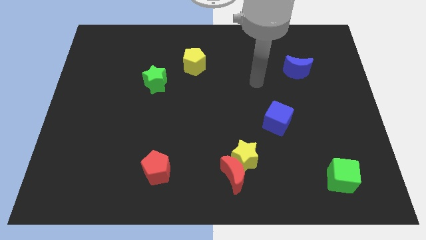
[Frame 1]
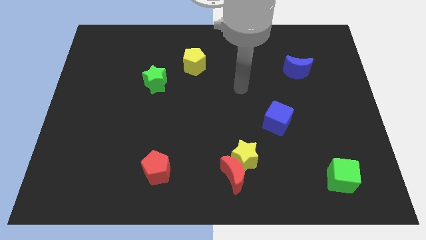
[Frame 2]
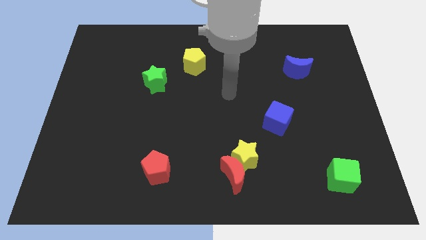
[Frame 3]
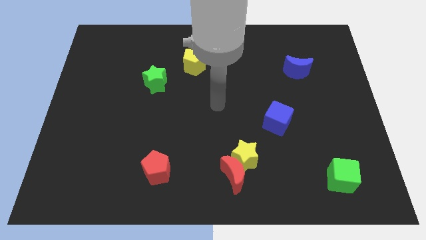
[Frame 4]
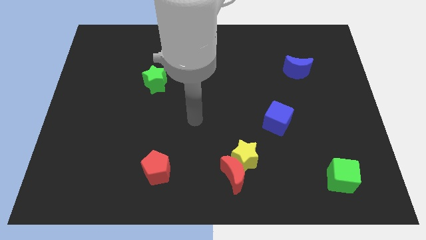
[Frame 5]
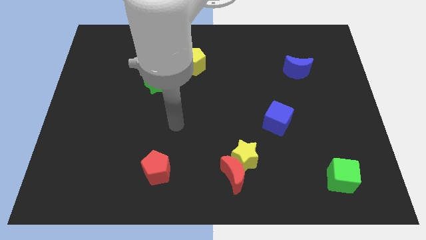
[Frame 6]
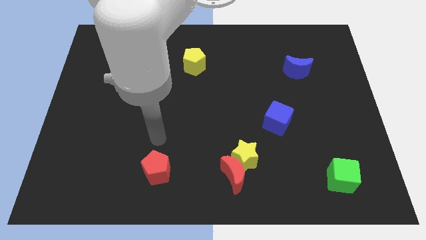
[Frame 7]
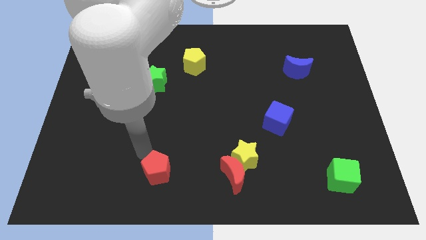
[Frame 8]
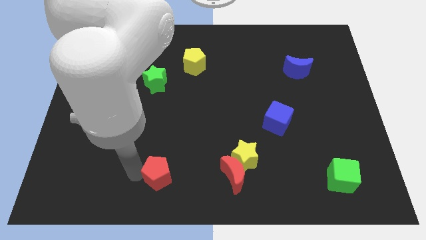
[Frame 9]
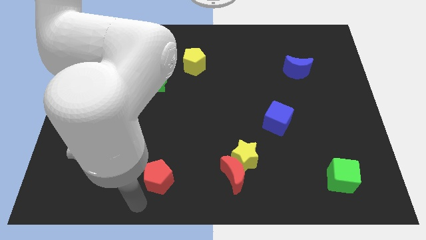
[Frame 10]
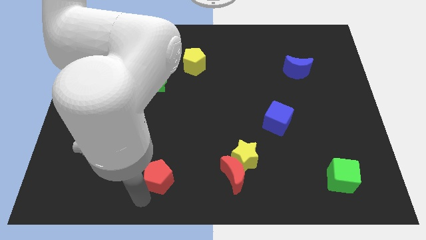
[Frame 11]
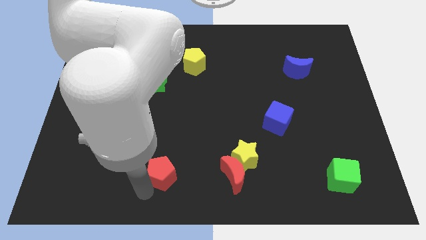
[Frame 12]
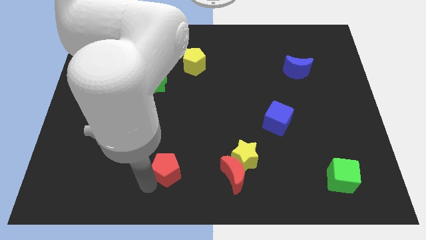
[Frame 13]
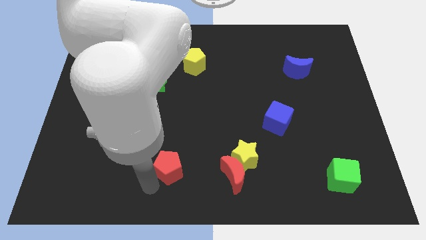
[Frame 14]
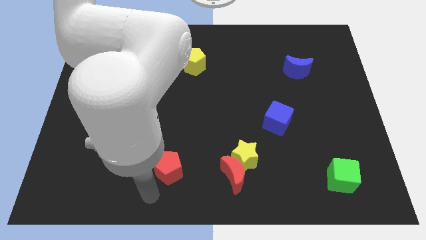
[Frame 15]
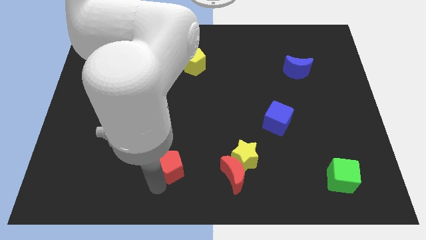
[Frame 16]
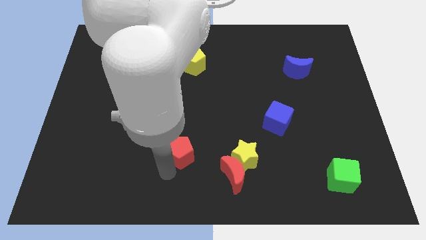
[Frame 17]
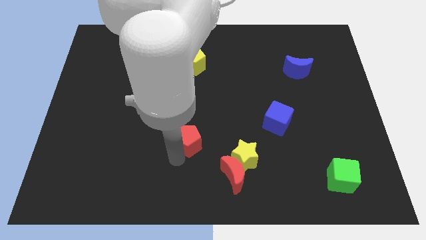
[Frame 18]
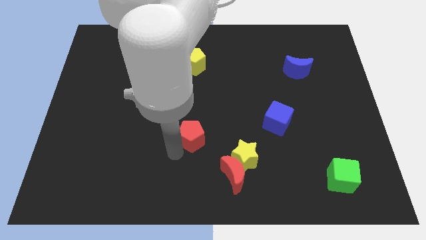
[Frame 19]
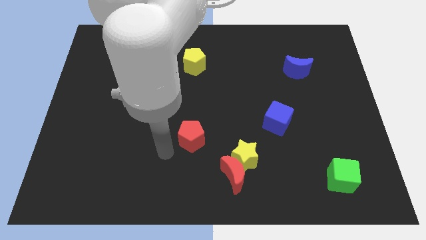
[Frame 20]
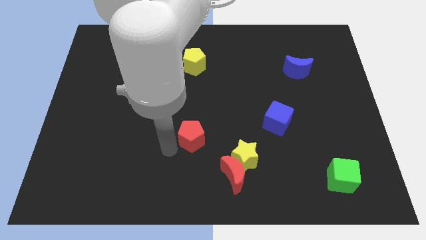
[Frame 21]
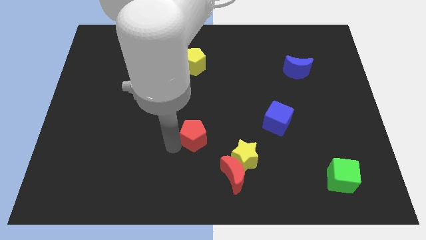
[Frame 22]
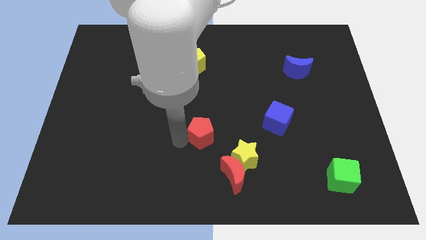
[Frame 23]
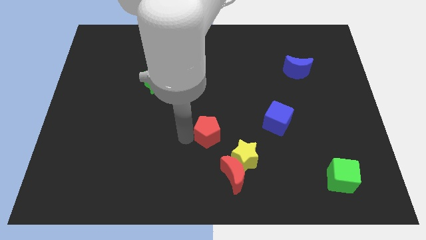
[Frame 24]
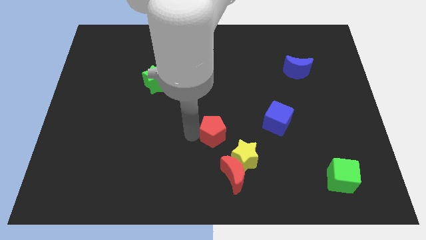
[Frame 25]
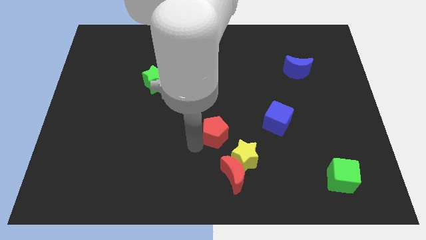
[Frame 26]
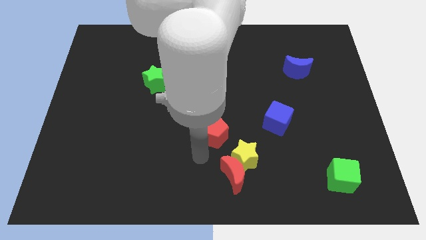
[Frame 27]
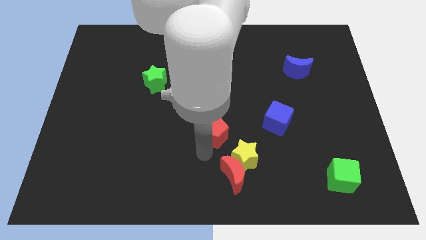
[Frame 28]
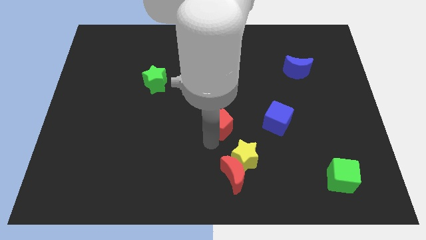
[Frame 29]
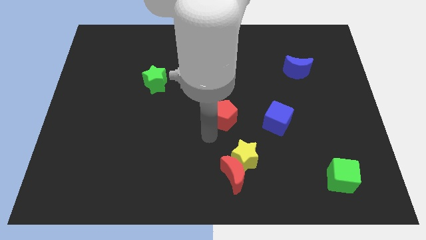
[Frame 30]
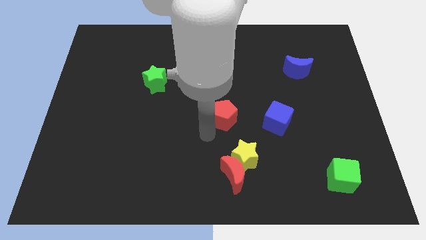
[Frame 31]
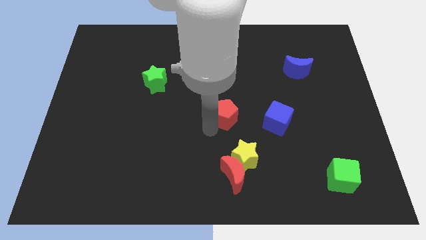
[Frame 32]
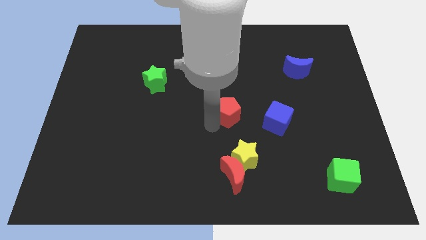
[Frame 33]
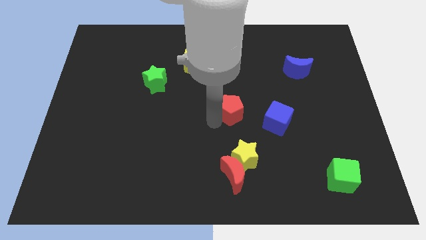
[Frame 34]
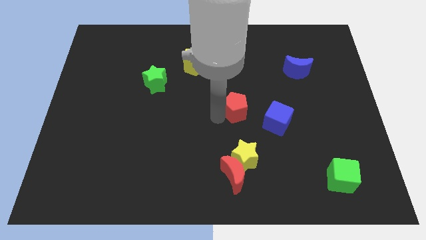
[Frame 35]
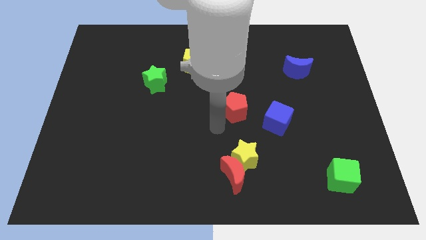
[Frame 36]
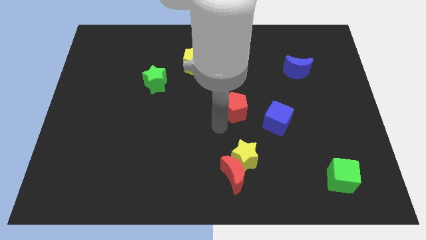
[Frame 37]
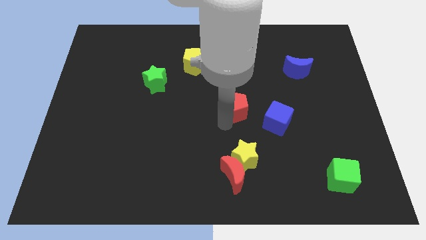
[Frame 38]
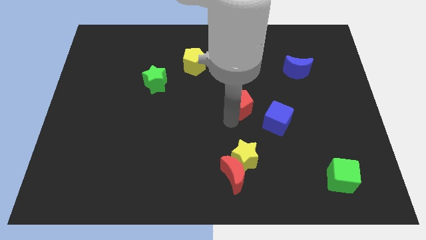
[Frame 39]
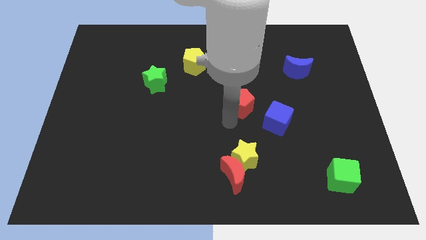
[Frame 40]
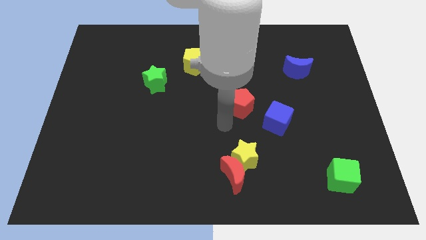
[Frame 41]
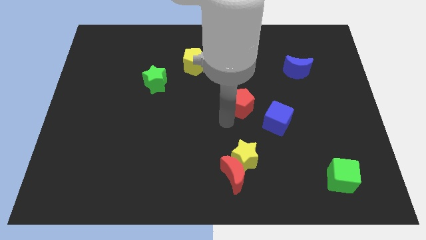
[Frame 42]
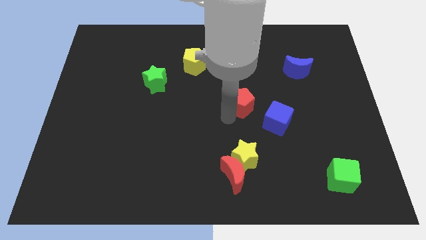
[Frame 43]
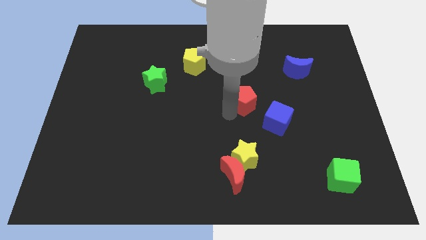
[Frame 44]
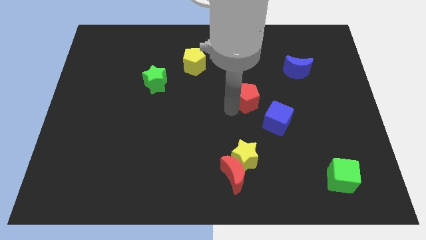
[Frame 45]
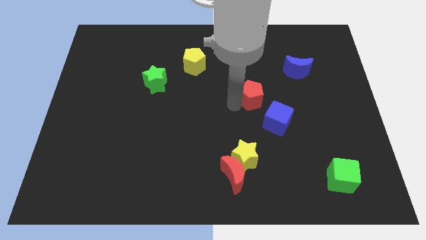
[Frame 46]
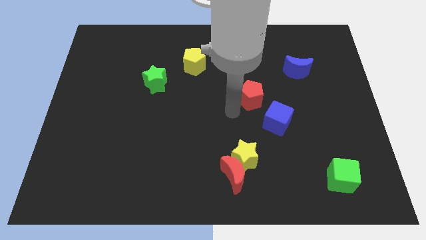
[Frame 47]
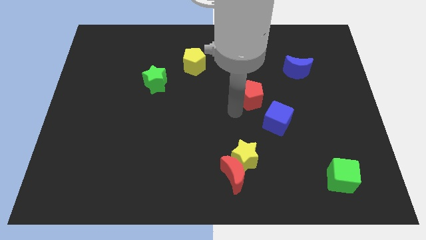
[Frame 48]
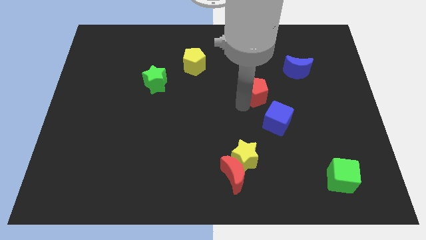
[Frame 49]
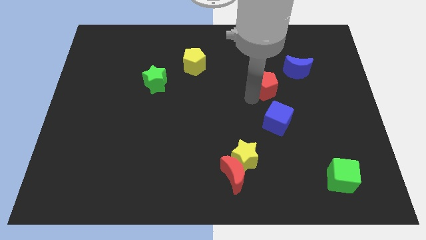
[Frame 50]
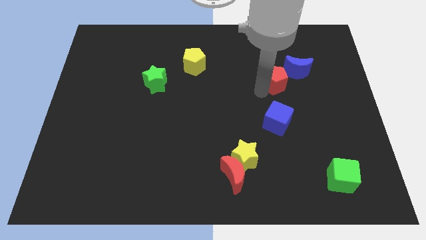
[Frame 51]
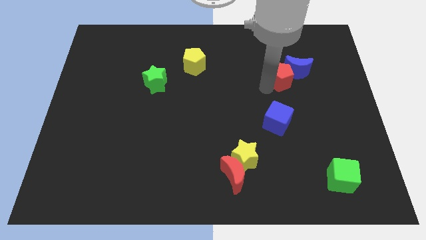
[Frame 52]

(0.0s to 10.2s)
move the red pentagon close to the blue moon

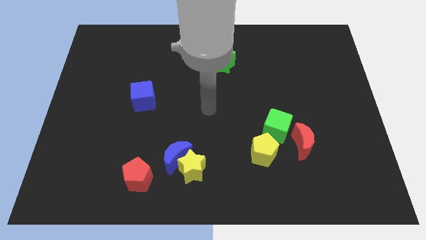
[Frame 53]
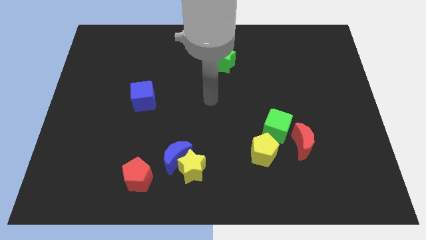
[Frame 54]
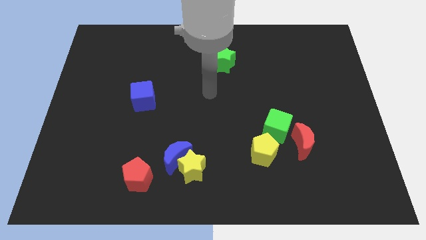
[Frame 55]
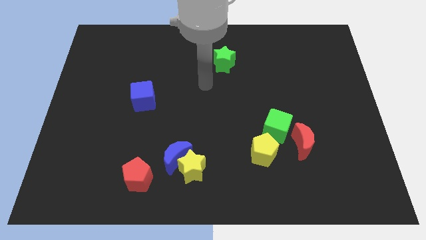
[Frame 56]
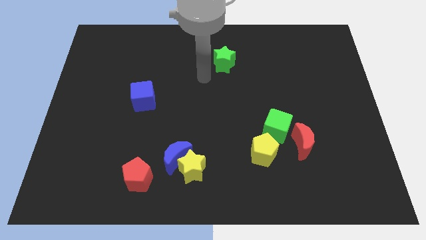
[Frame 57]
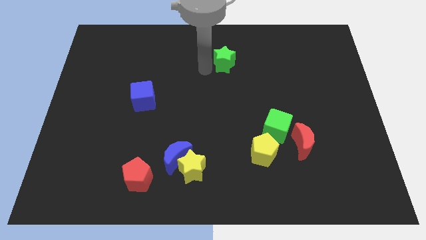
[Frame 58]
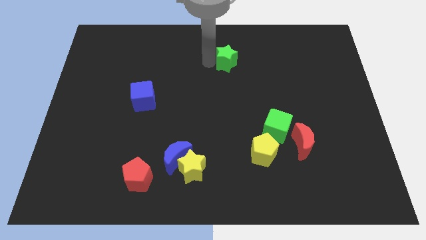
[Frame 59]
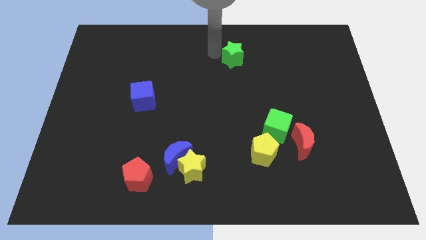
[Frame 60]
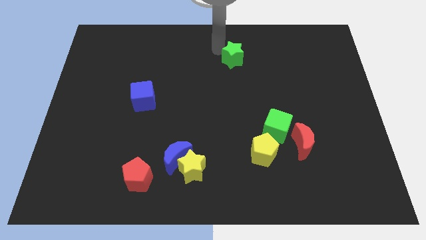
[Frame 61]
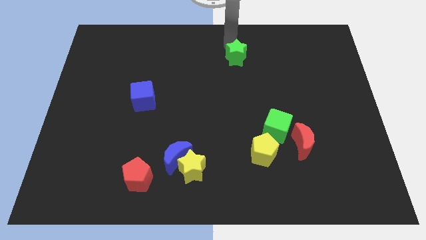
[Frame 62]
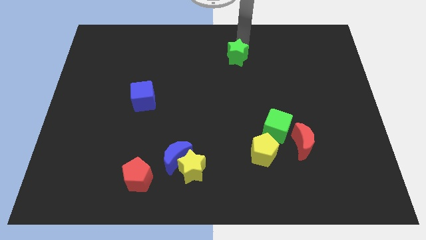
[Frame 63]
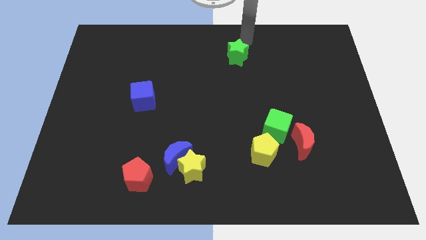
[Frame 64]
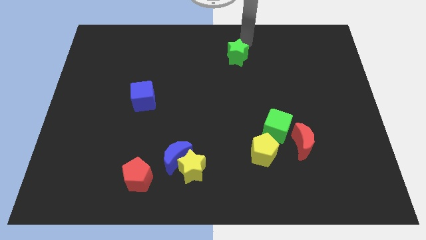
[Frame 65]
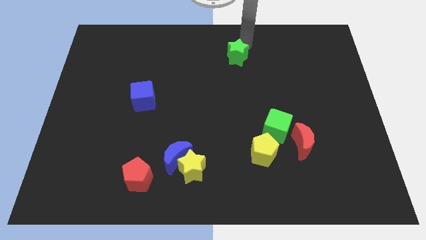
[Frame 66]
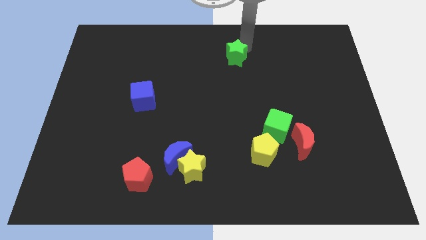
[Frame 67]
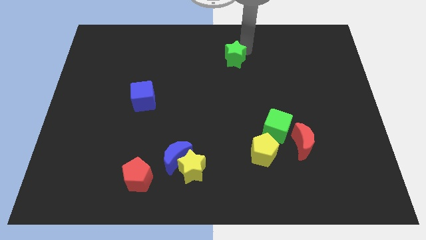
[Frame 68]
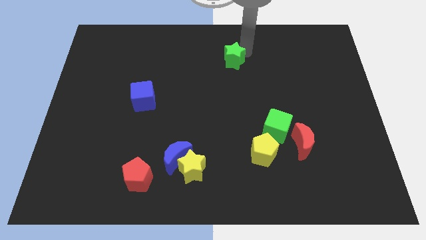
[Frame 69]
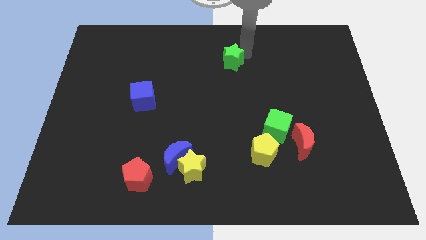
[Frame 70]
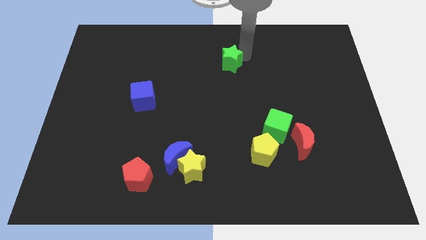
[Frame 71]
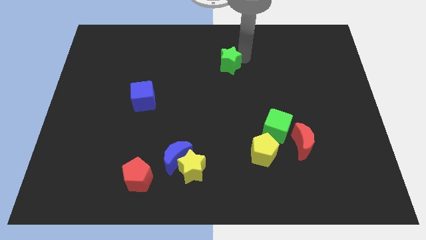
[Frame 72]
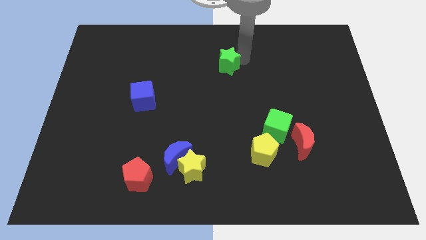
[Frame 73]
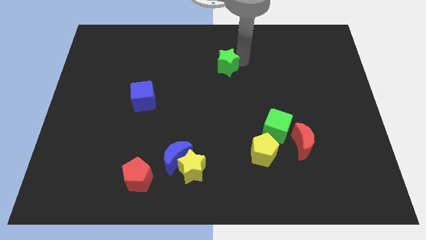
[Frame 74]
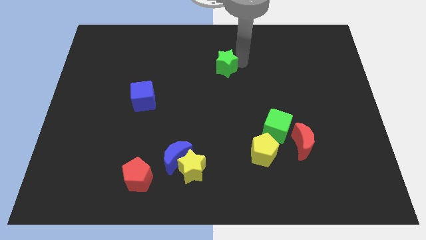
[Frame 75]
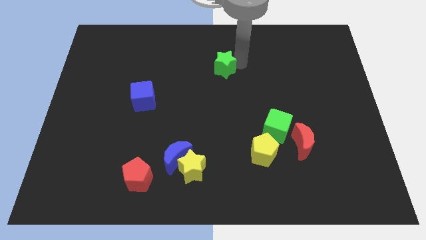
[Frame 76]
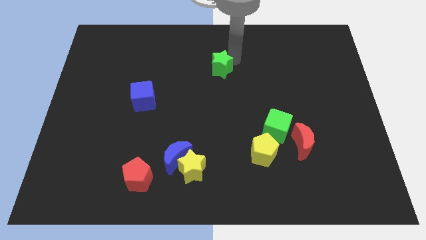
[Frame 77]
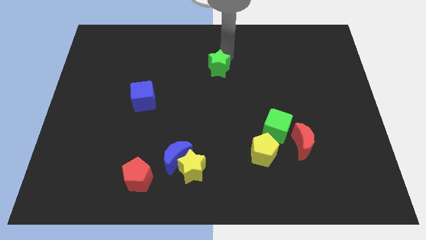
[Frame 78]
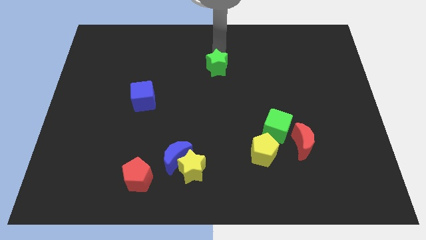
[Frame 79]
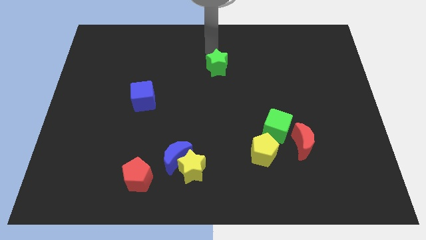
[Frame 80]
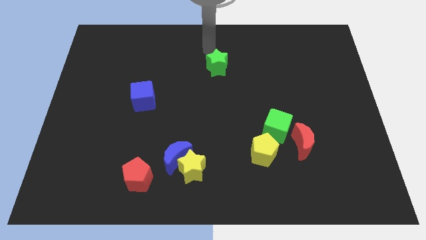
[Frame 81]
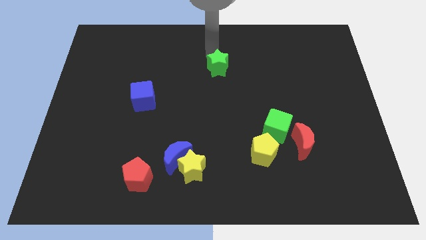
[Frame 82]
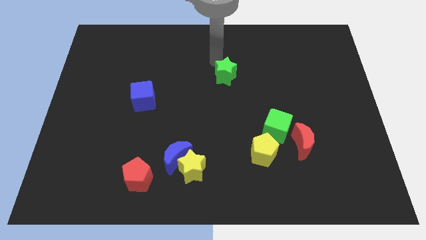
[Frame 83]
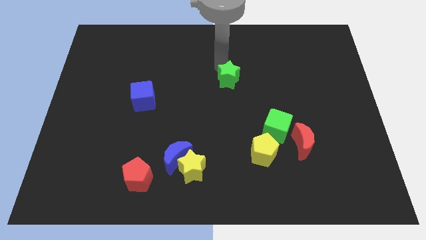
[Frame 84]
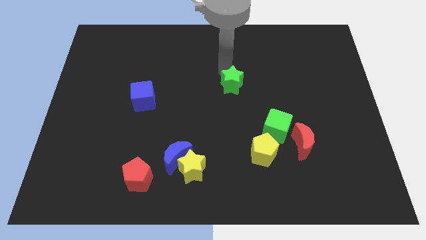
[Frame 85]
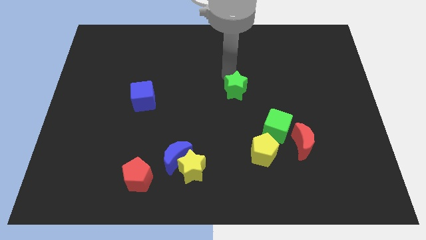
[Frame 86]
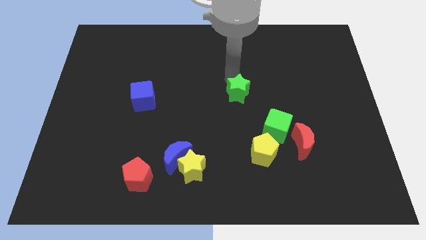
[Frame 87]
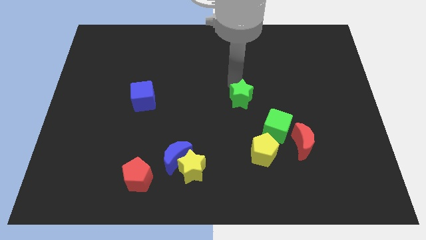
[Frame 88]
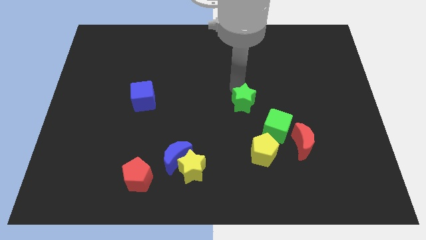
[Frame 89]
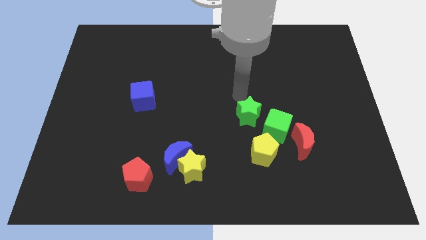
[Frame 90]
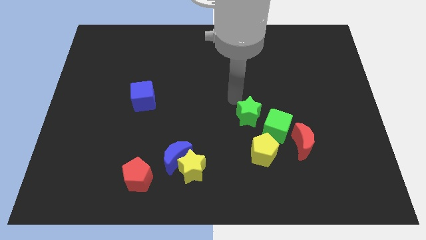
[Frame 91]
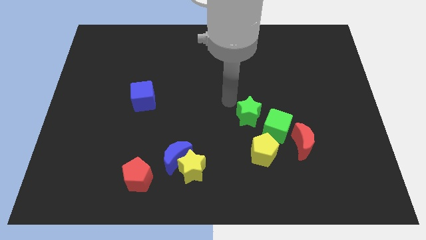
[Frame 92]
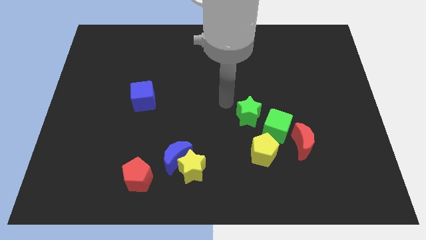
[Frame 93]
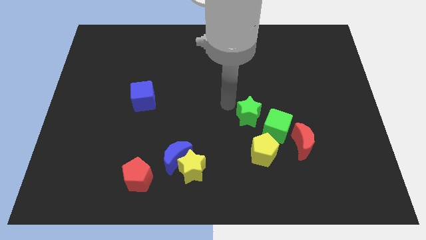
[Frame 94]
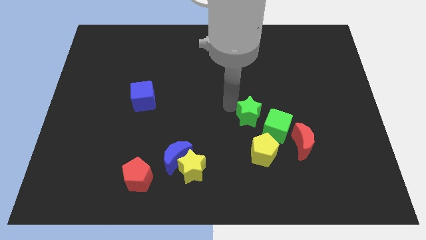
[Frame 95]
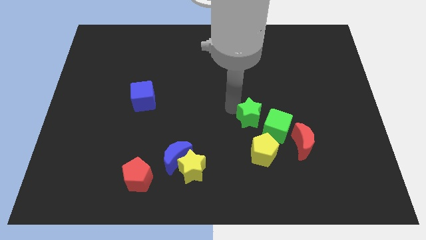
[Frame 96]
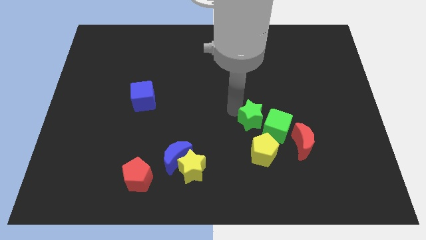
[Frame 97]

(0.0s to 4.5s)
put the green star to the green cube
